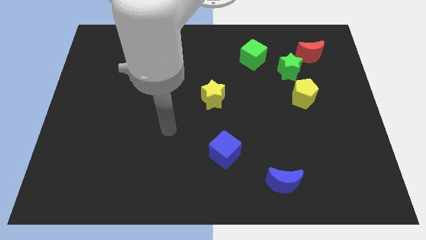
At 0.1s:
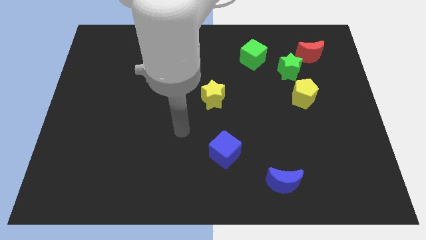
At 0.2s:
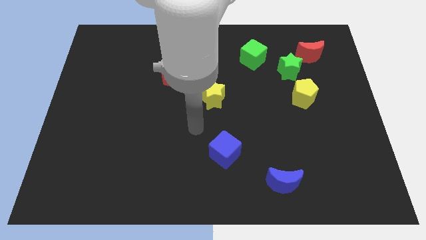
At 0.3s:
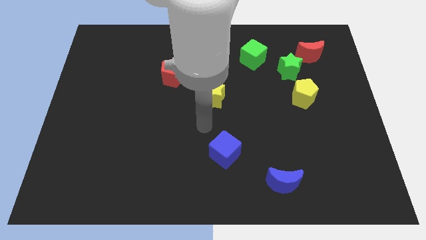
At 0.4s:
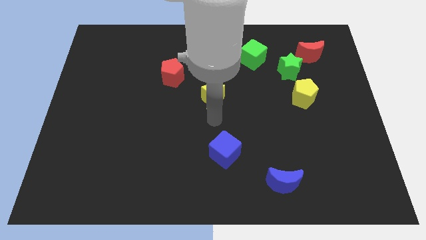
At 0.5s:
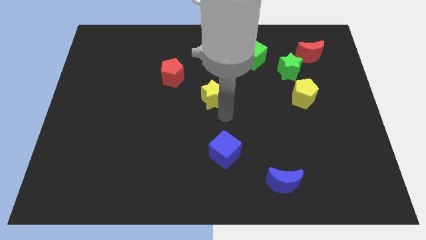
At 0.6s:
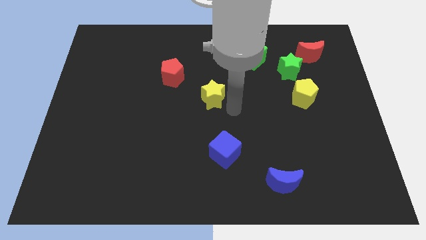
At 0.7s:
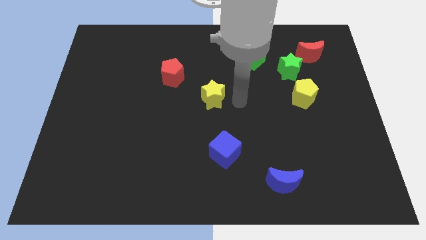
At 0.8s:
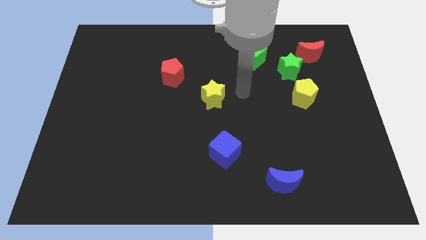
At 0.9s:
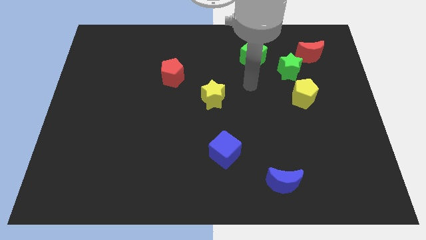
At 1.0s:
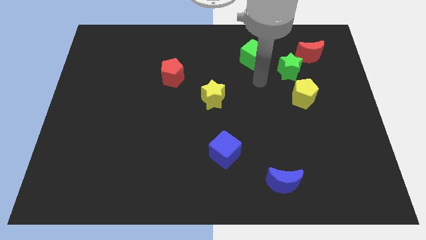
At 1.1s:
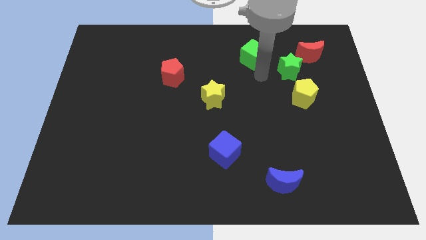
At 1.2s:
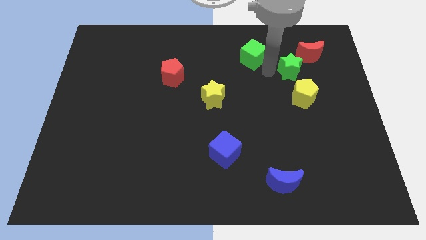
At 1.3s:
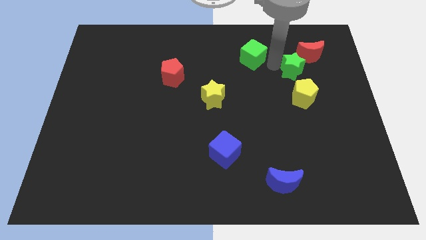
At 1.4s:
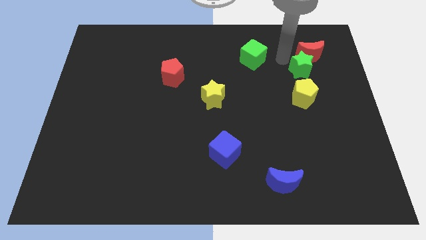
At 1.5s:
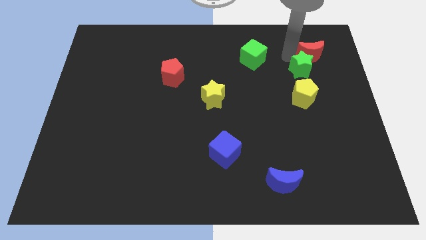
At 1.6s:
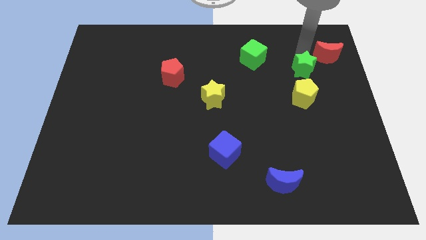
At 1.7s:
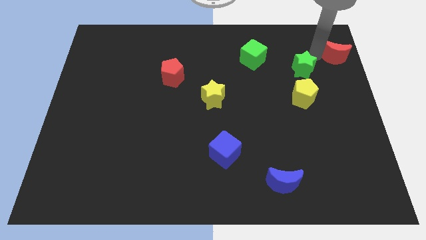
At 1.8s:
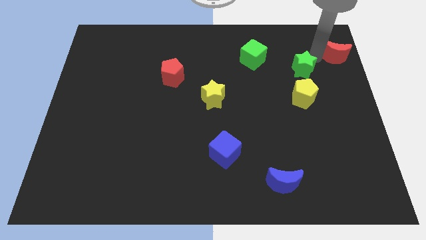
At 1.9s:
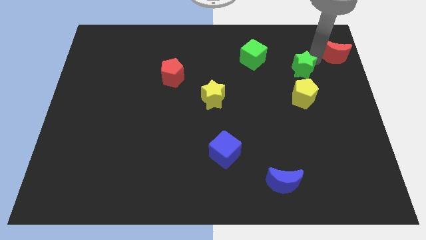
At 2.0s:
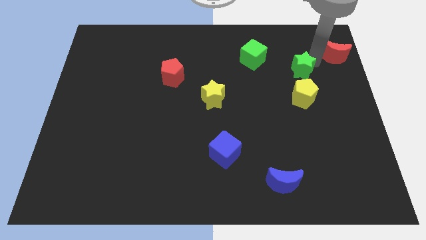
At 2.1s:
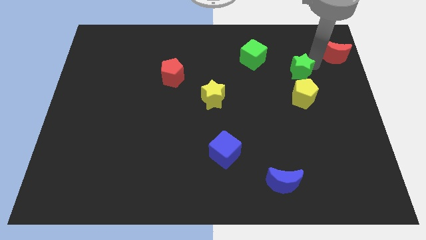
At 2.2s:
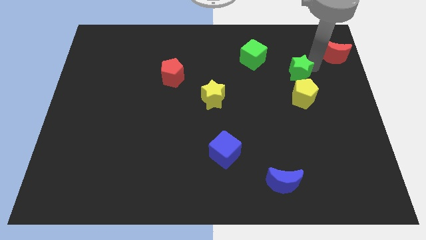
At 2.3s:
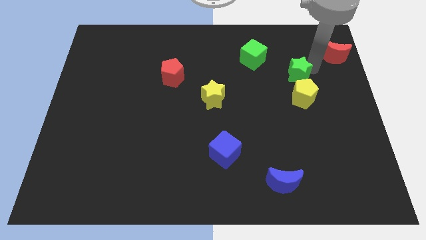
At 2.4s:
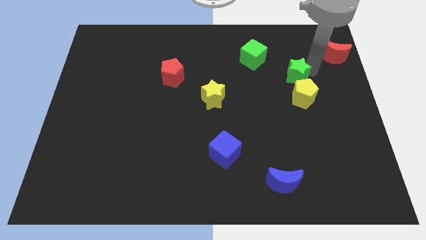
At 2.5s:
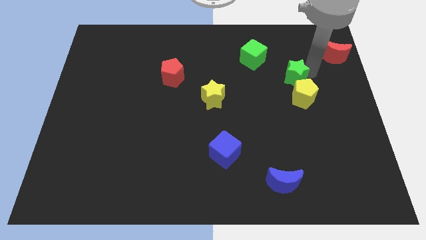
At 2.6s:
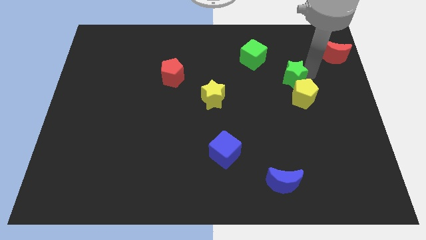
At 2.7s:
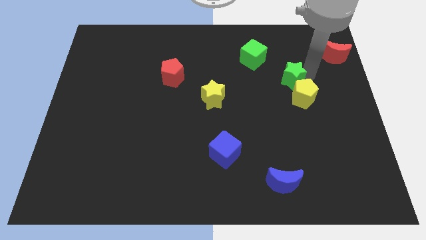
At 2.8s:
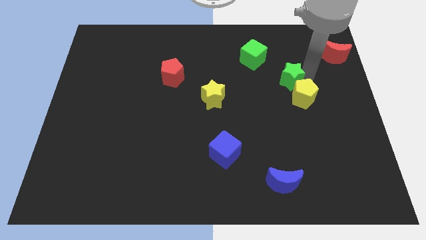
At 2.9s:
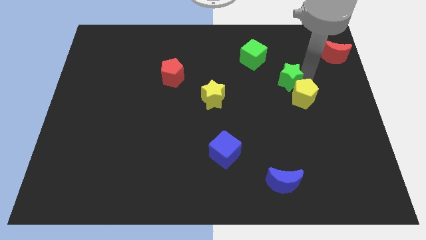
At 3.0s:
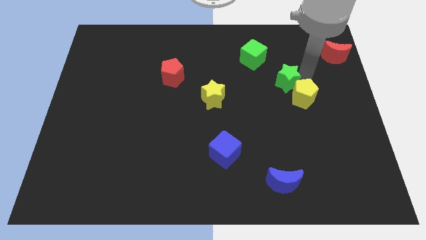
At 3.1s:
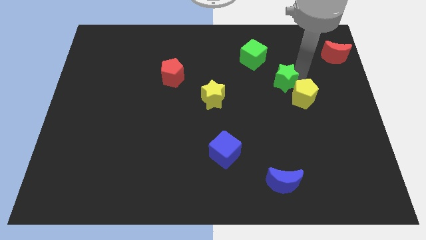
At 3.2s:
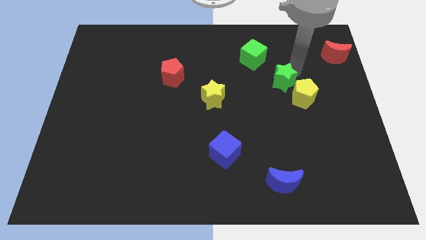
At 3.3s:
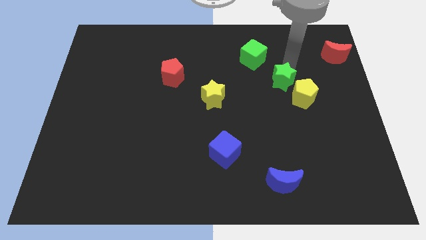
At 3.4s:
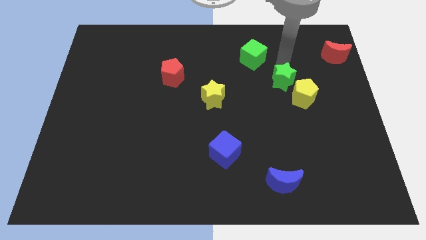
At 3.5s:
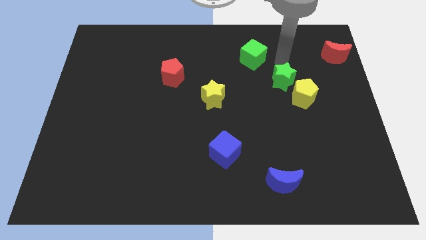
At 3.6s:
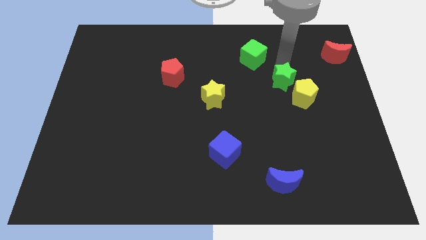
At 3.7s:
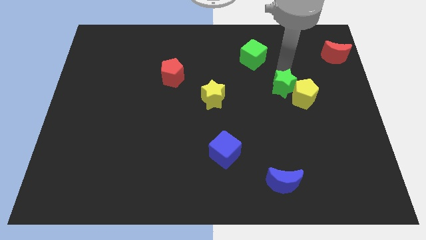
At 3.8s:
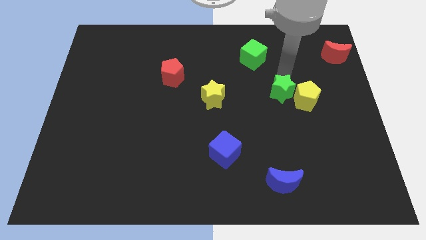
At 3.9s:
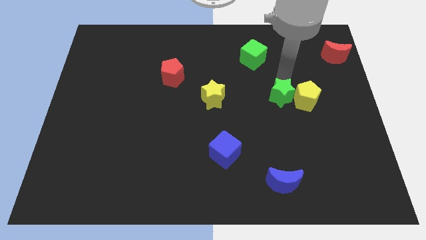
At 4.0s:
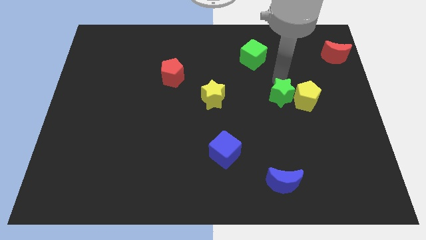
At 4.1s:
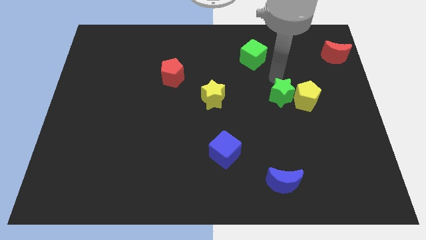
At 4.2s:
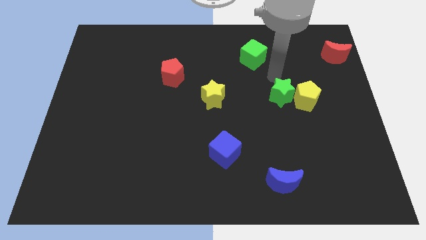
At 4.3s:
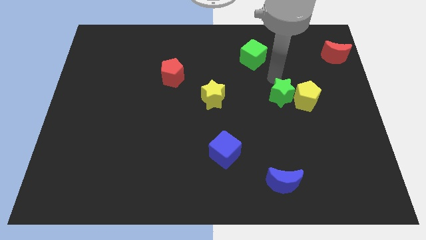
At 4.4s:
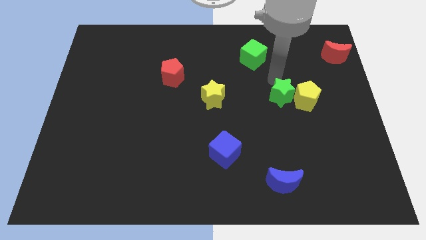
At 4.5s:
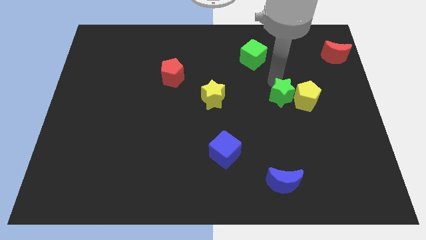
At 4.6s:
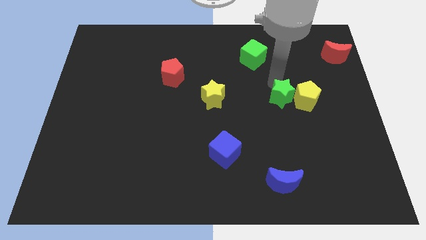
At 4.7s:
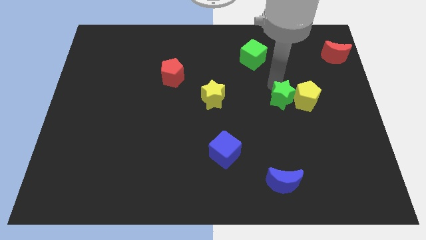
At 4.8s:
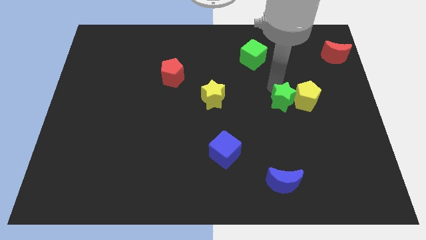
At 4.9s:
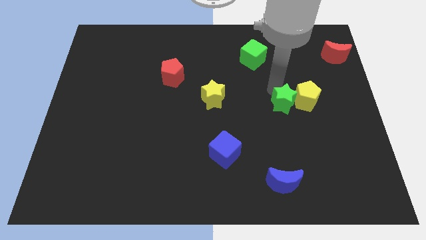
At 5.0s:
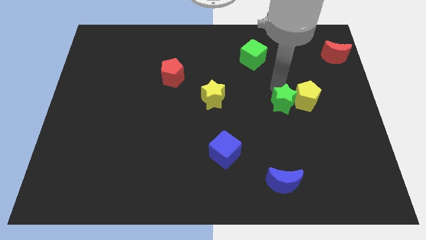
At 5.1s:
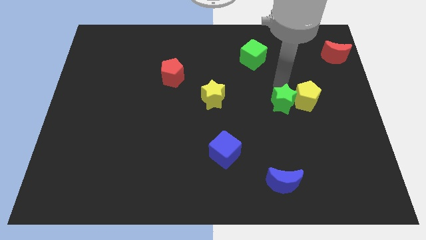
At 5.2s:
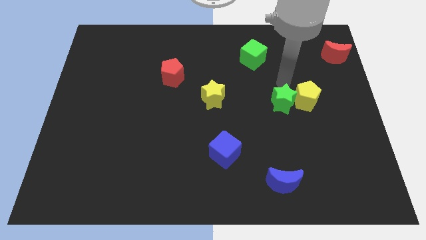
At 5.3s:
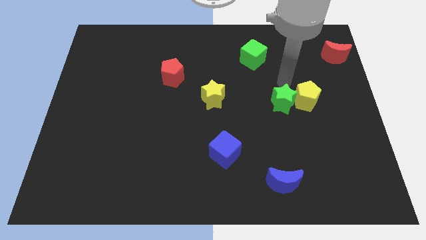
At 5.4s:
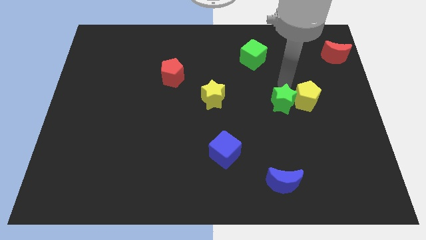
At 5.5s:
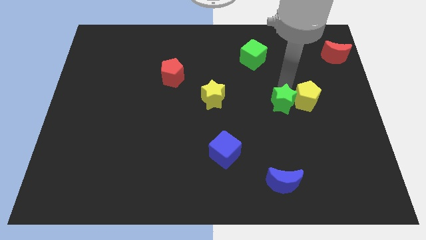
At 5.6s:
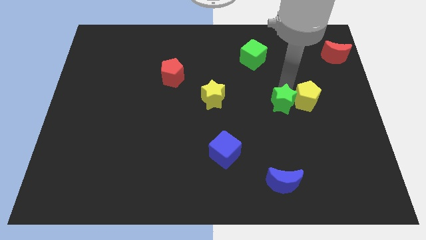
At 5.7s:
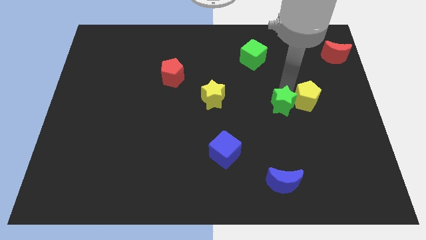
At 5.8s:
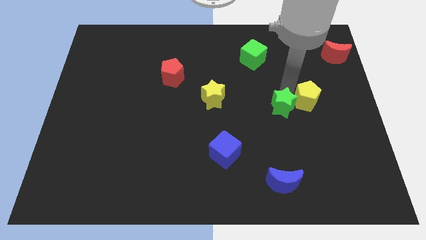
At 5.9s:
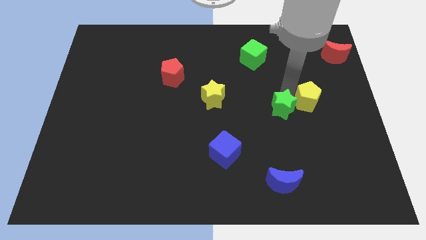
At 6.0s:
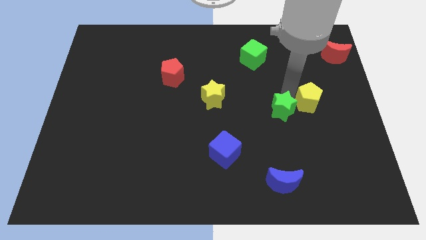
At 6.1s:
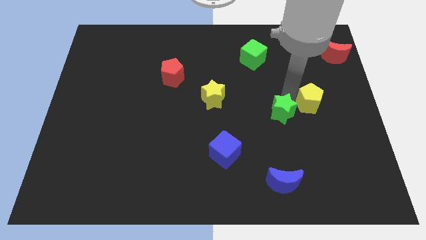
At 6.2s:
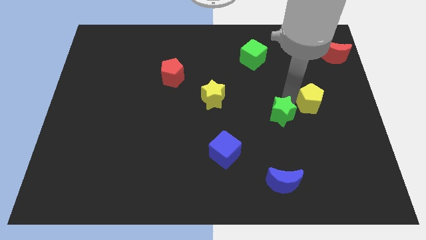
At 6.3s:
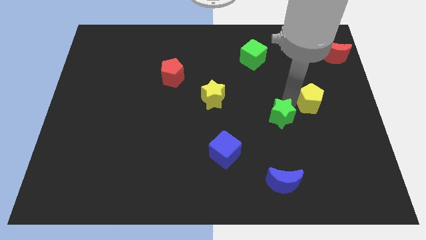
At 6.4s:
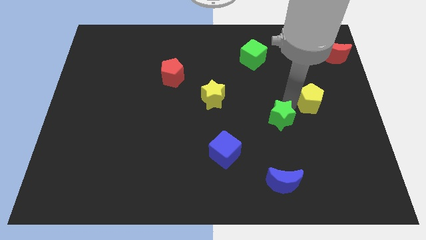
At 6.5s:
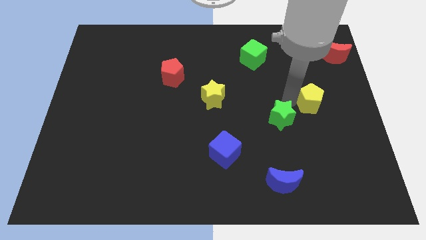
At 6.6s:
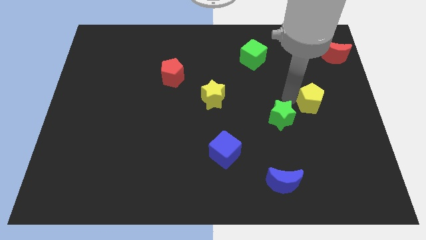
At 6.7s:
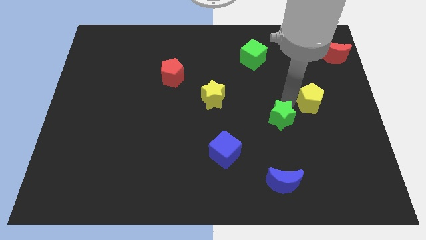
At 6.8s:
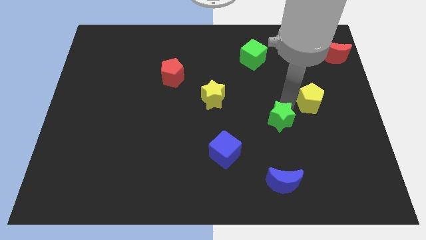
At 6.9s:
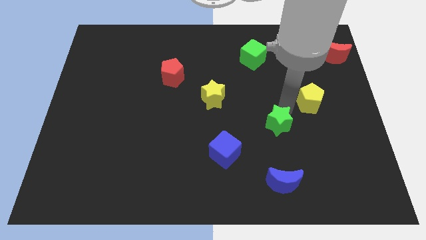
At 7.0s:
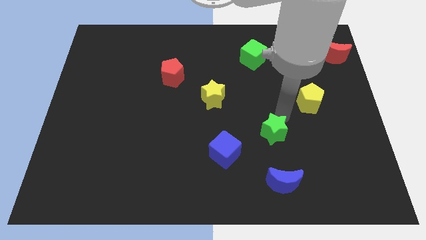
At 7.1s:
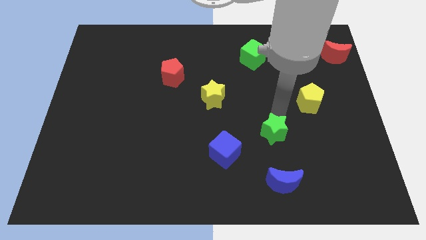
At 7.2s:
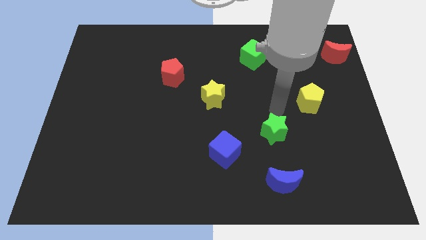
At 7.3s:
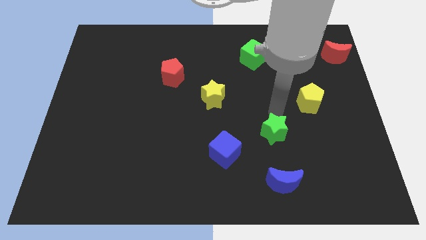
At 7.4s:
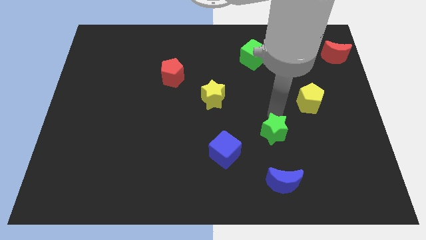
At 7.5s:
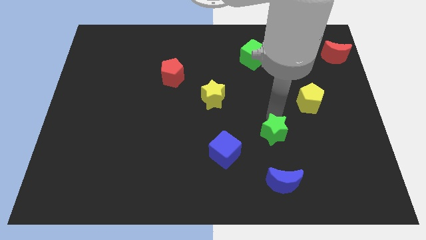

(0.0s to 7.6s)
slide the green star just right of the blue cube
